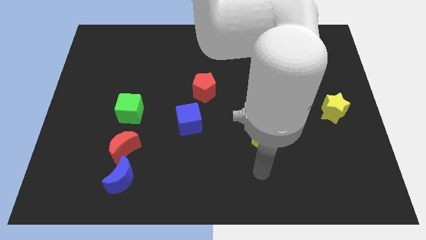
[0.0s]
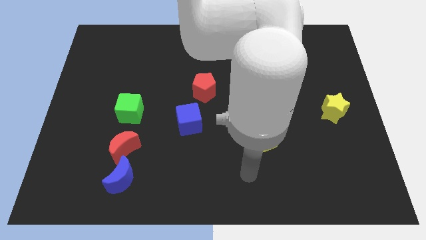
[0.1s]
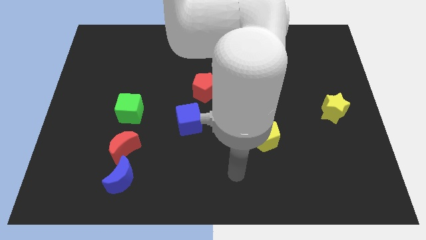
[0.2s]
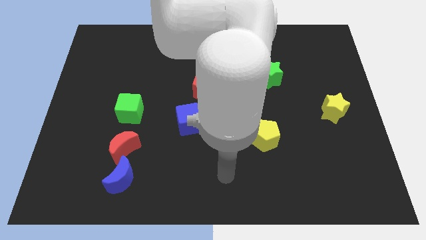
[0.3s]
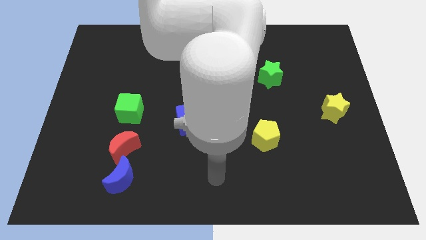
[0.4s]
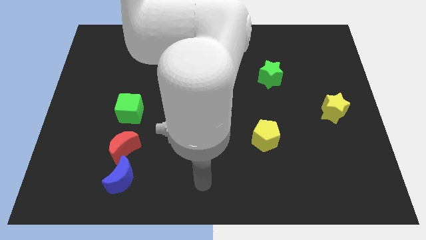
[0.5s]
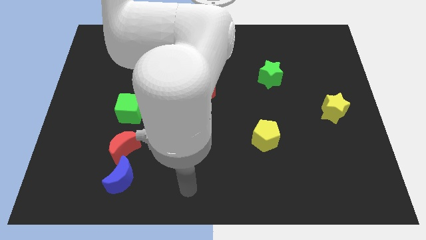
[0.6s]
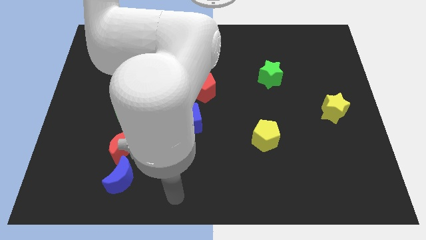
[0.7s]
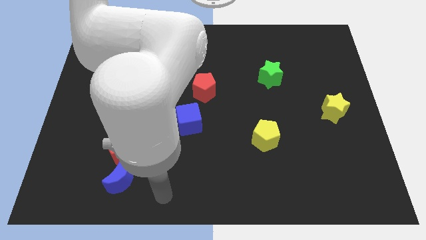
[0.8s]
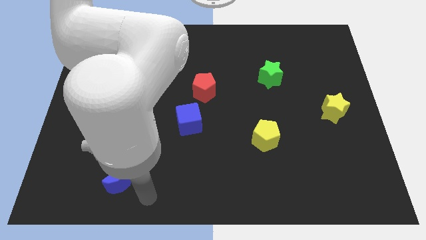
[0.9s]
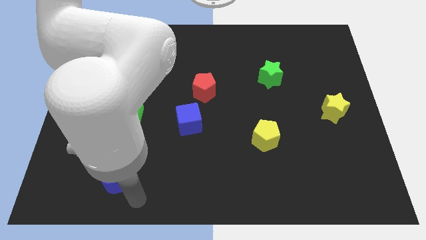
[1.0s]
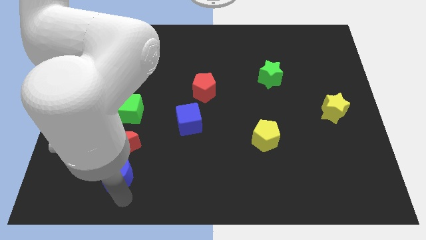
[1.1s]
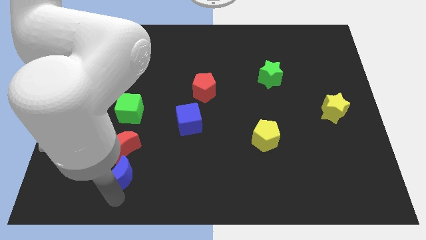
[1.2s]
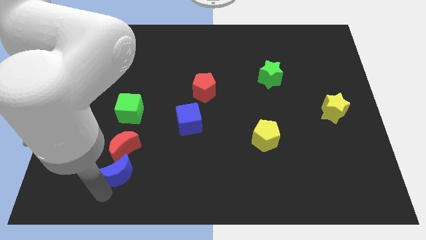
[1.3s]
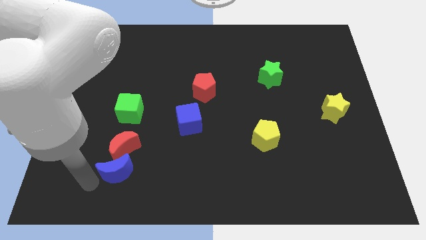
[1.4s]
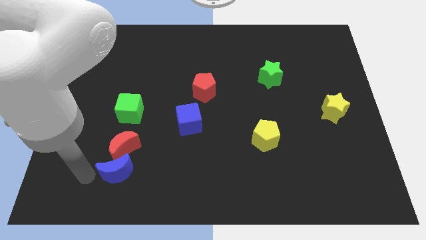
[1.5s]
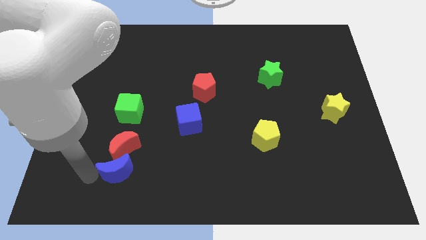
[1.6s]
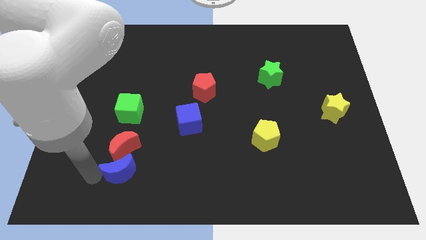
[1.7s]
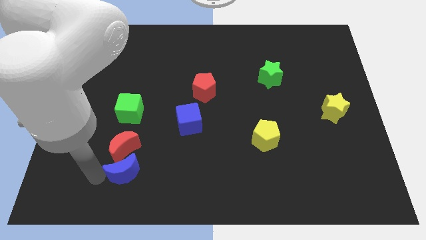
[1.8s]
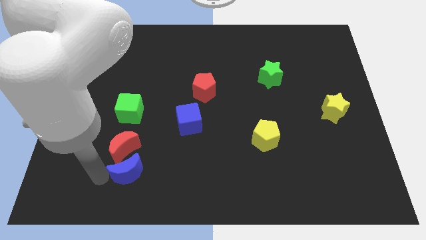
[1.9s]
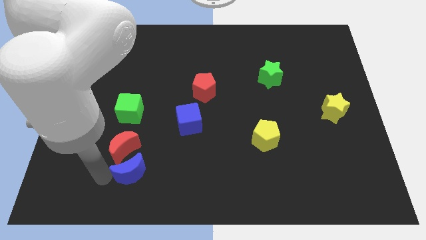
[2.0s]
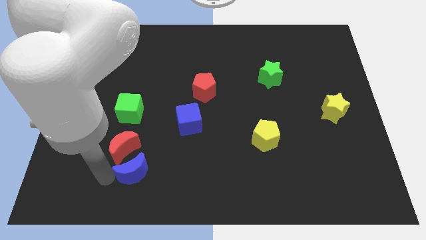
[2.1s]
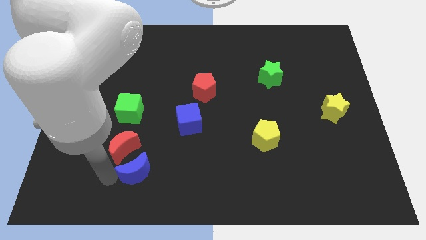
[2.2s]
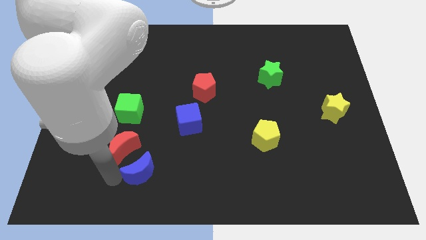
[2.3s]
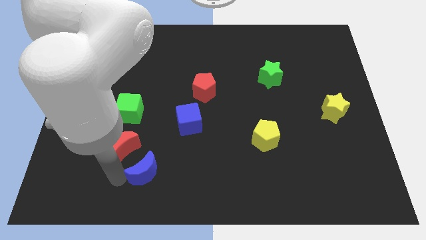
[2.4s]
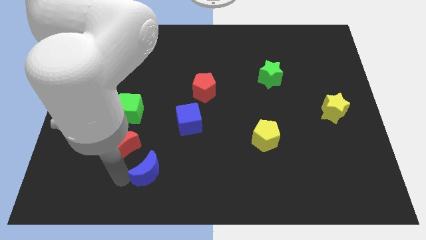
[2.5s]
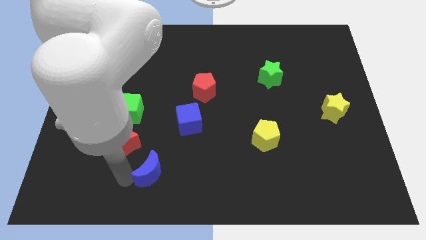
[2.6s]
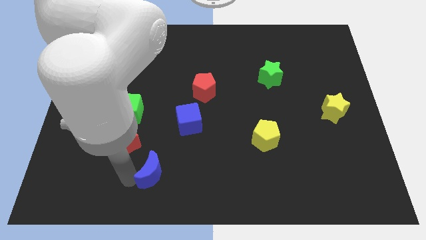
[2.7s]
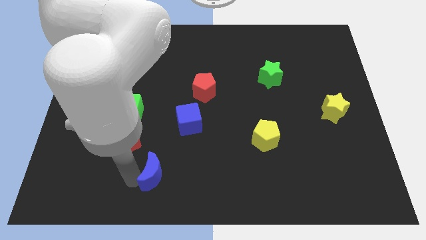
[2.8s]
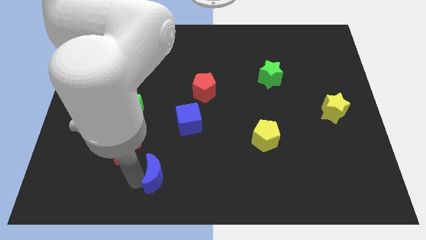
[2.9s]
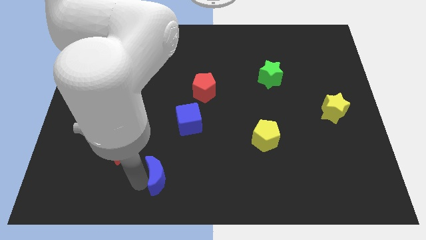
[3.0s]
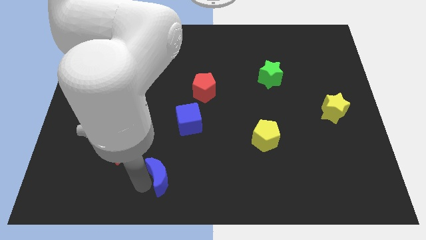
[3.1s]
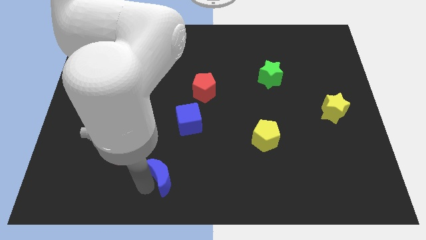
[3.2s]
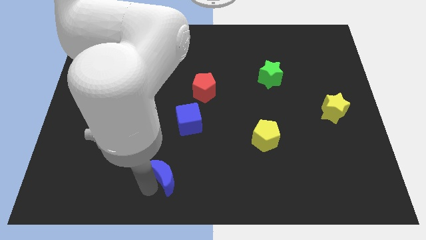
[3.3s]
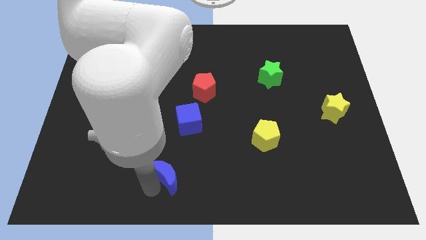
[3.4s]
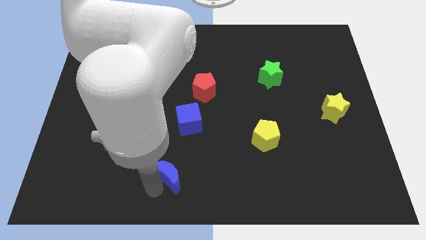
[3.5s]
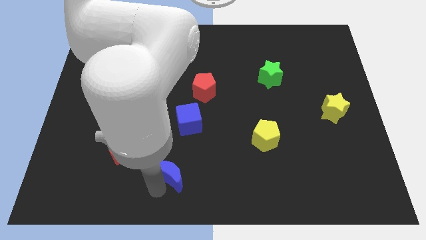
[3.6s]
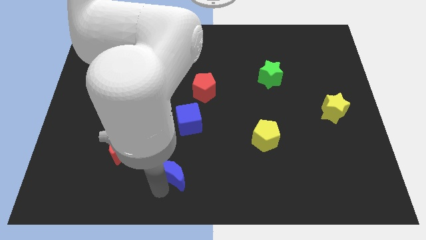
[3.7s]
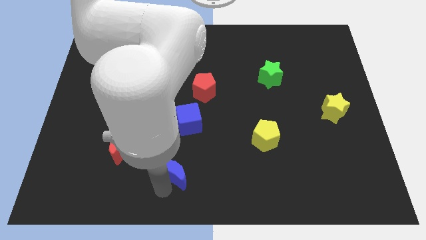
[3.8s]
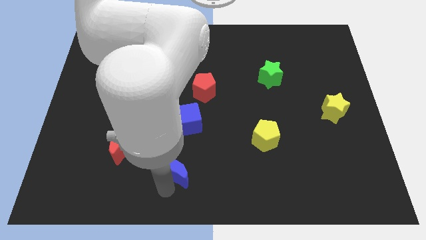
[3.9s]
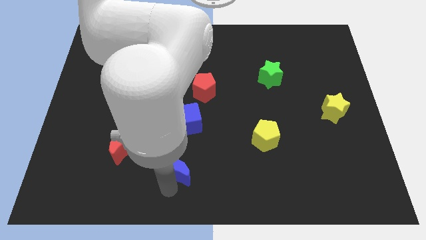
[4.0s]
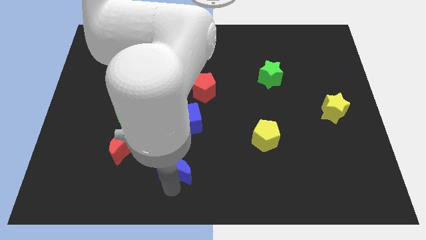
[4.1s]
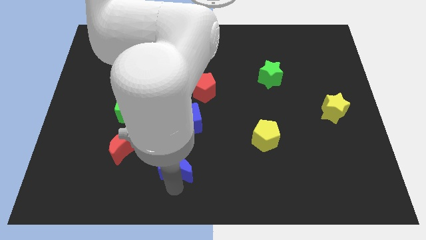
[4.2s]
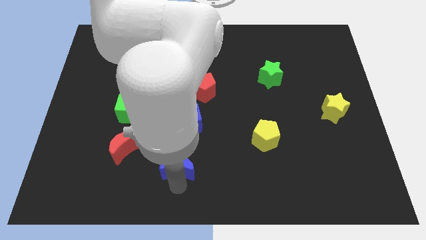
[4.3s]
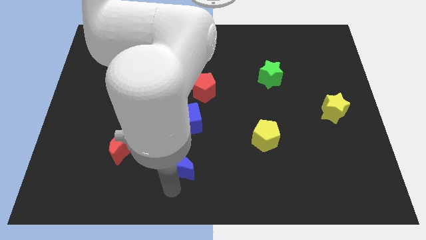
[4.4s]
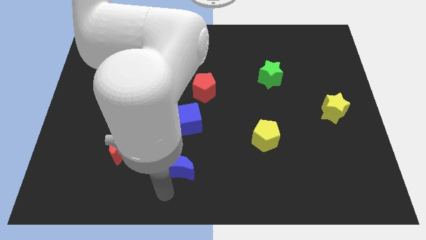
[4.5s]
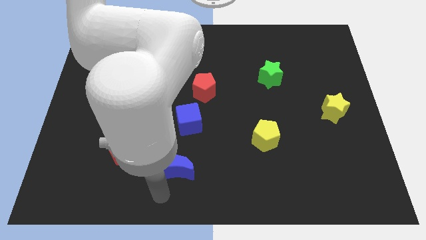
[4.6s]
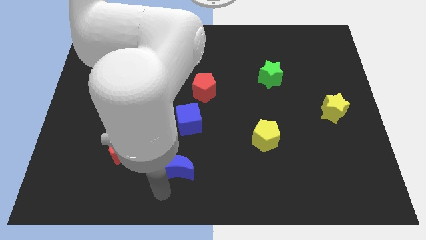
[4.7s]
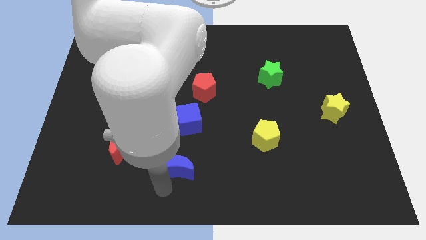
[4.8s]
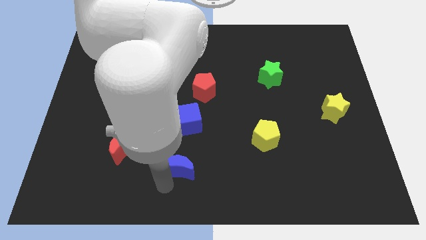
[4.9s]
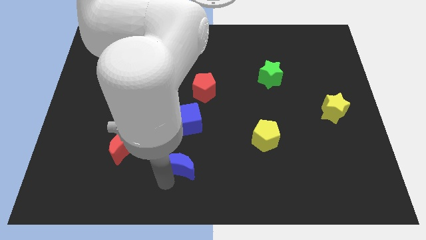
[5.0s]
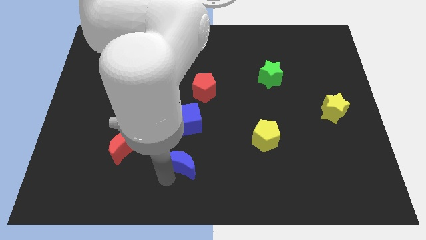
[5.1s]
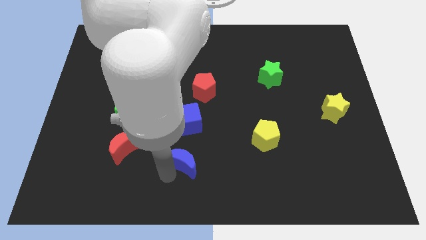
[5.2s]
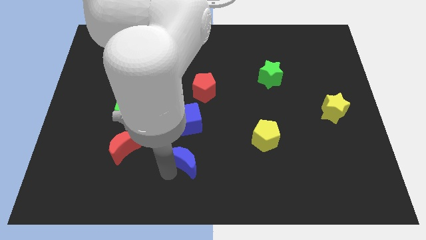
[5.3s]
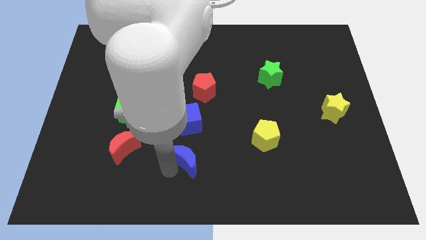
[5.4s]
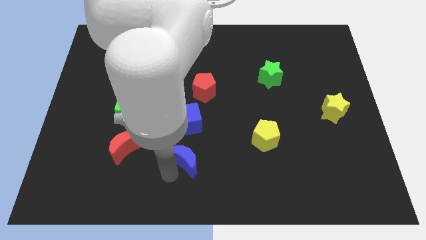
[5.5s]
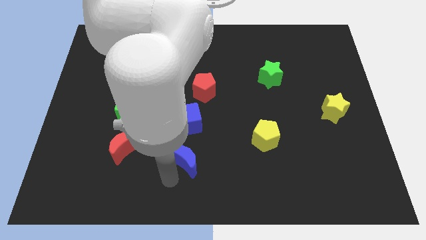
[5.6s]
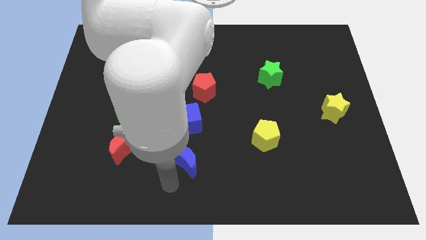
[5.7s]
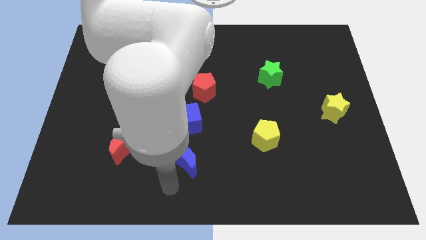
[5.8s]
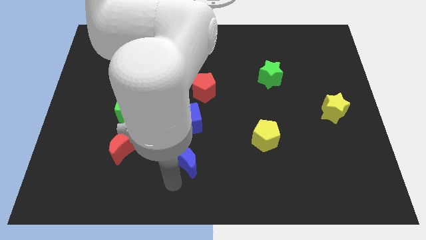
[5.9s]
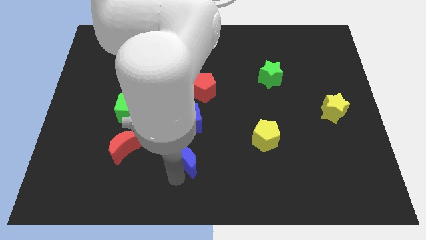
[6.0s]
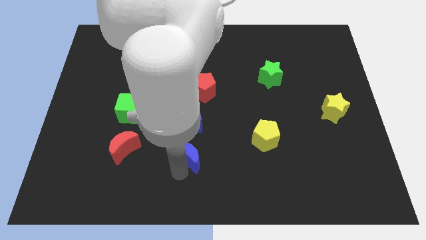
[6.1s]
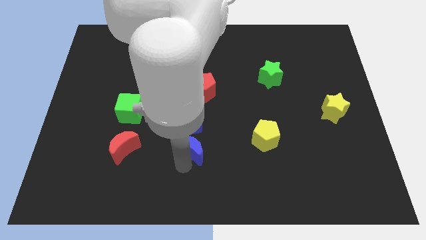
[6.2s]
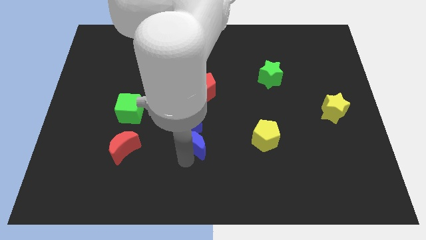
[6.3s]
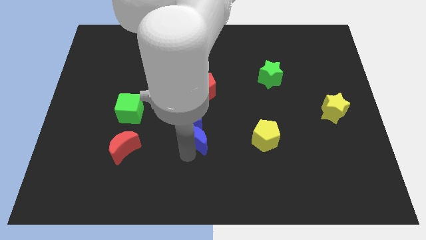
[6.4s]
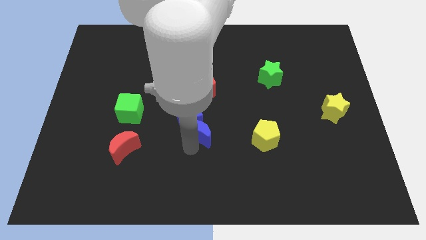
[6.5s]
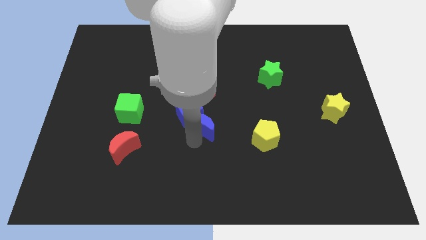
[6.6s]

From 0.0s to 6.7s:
push the blue moon diagonally upwards and right

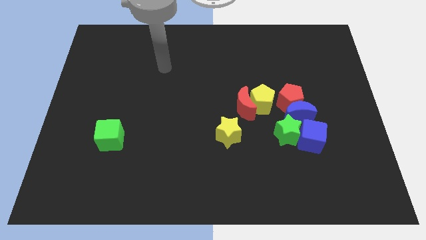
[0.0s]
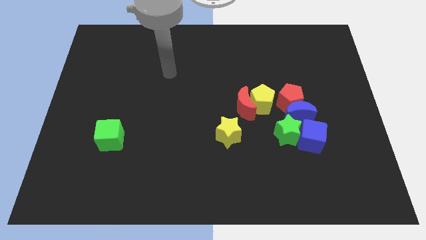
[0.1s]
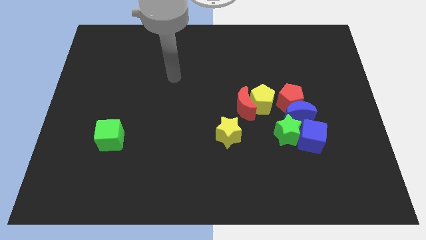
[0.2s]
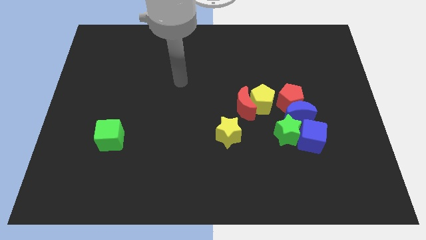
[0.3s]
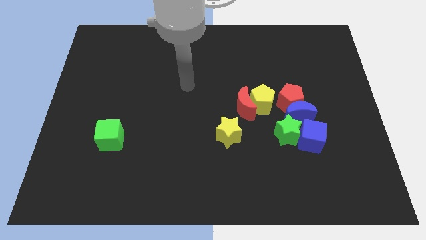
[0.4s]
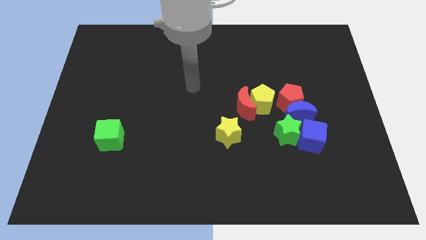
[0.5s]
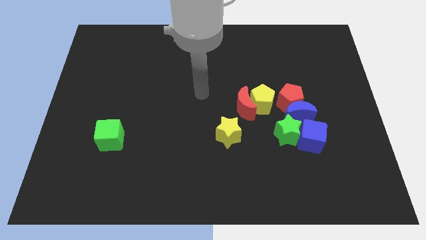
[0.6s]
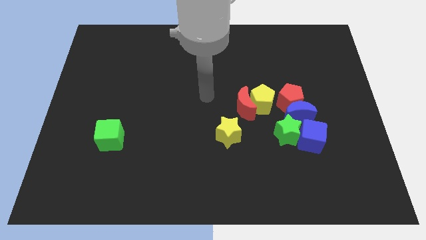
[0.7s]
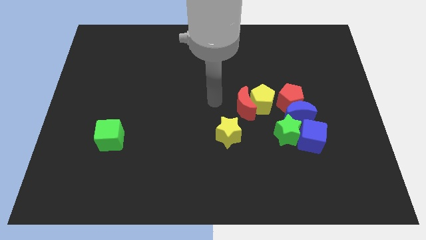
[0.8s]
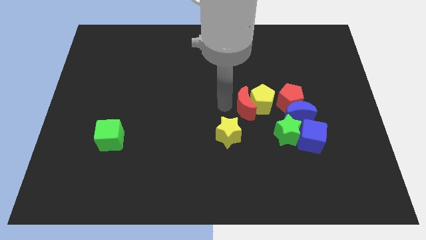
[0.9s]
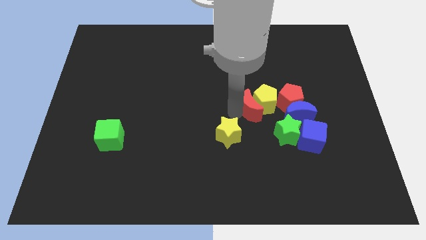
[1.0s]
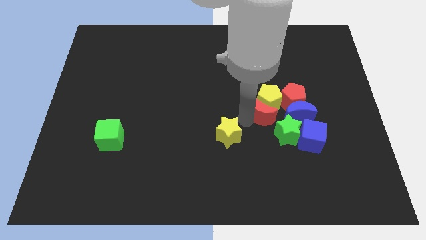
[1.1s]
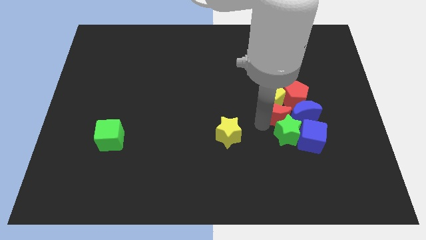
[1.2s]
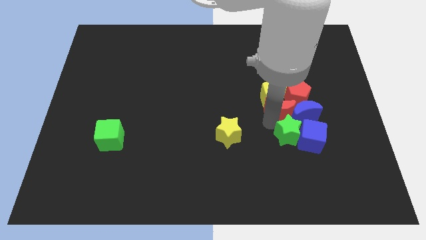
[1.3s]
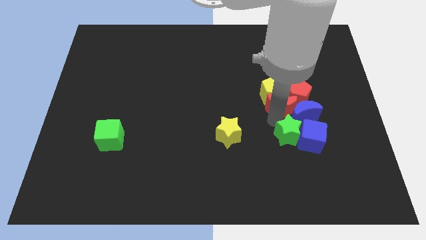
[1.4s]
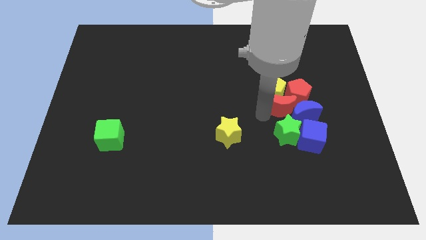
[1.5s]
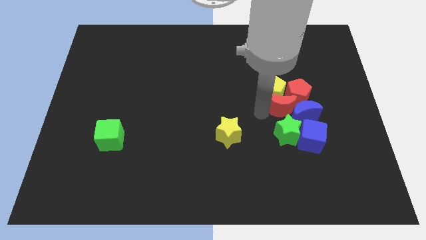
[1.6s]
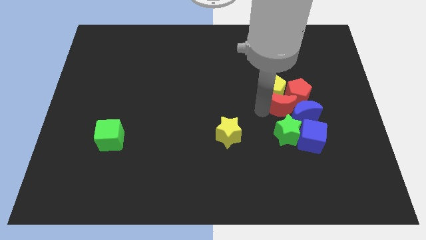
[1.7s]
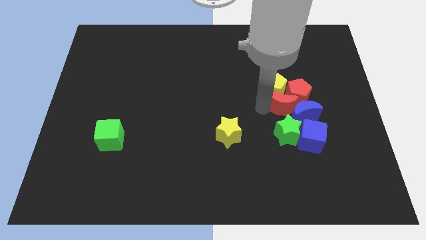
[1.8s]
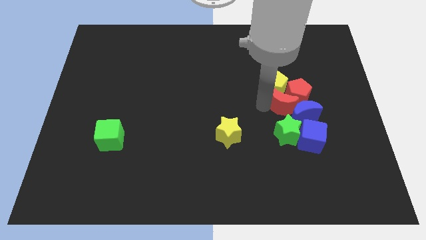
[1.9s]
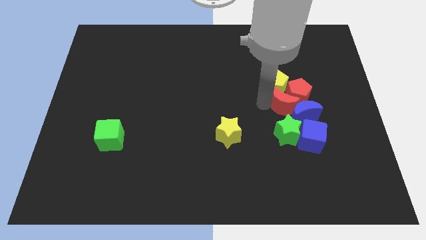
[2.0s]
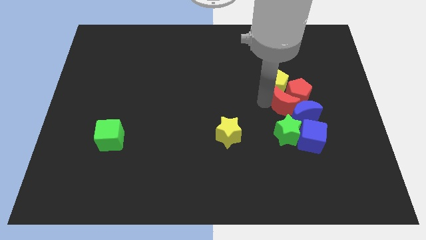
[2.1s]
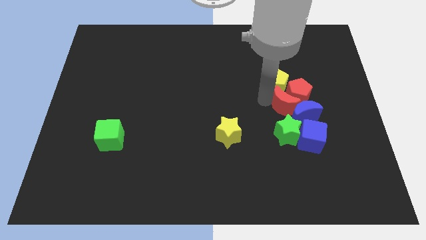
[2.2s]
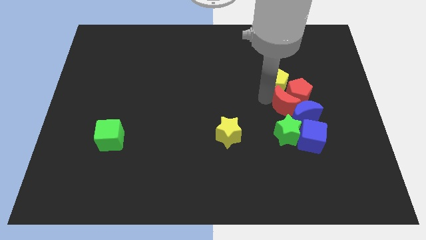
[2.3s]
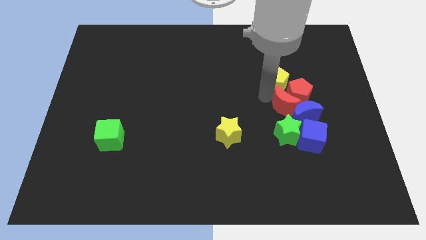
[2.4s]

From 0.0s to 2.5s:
slightly slide the yellow pentagon up and then right
